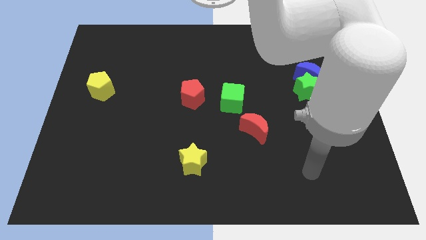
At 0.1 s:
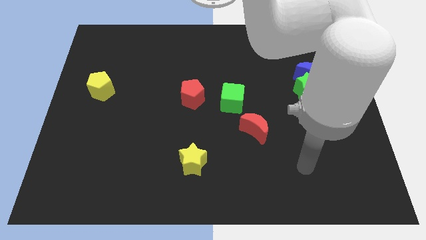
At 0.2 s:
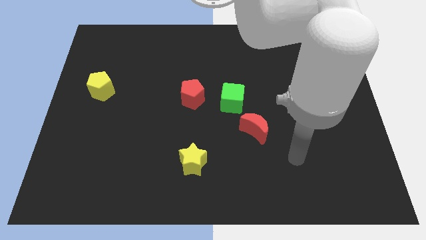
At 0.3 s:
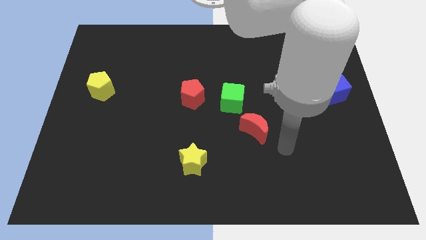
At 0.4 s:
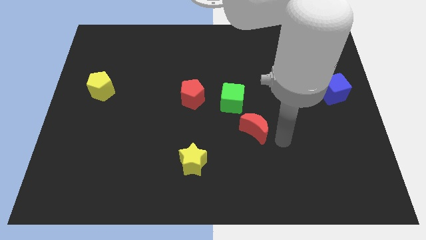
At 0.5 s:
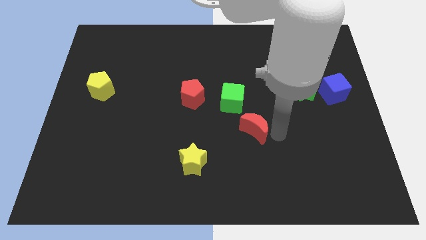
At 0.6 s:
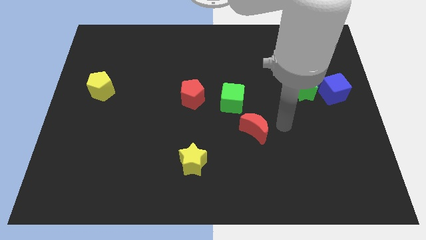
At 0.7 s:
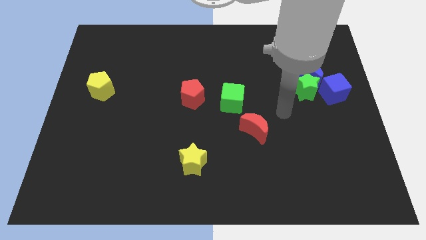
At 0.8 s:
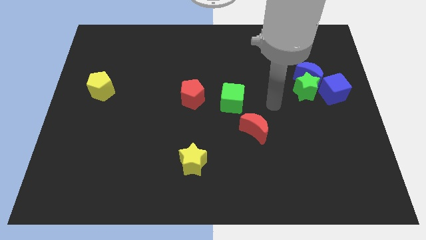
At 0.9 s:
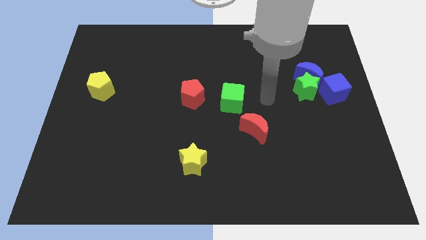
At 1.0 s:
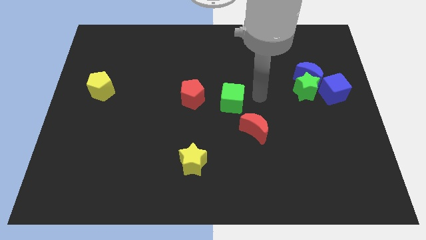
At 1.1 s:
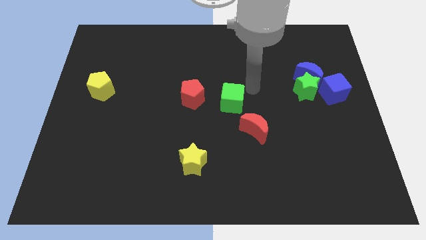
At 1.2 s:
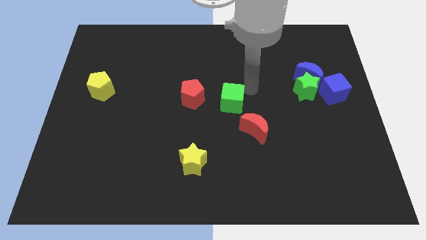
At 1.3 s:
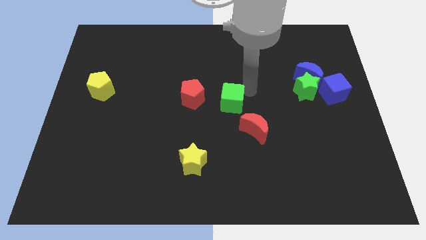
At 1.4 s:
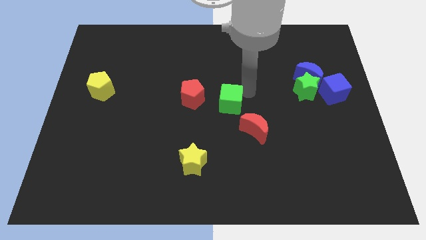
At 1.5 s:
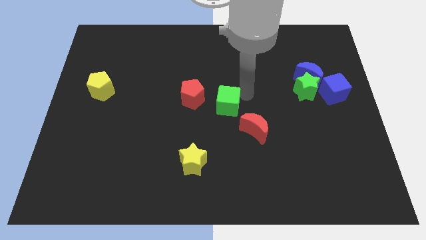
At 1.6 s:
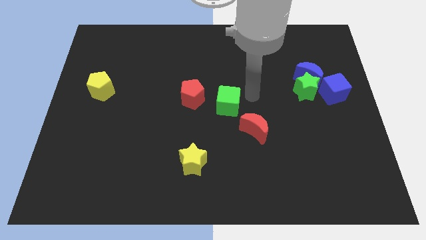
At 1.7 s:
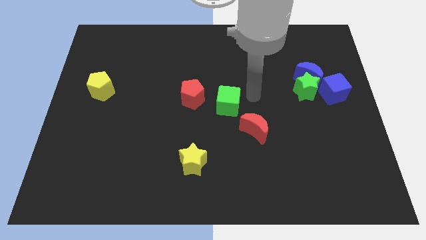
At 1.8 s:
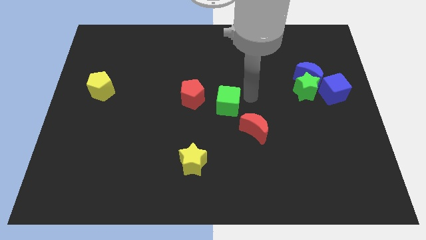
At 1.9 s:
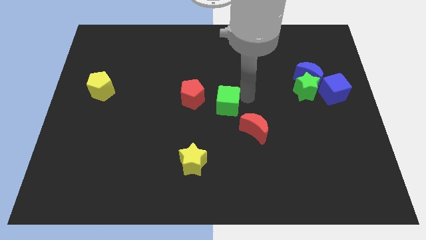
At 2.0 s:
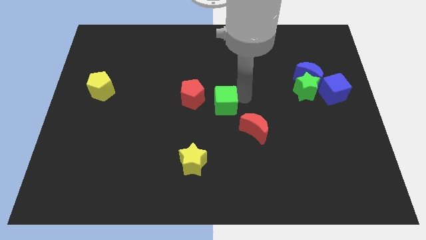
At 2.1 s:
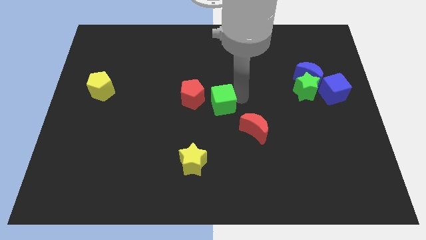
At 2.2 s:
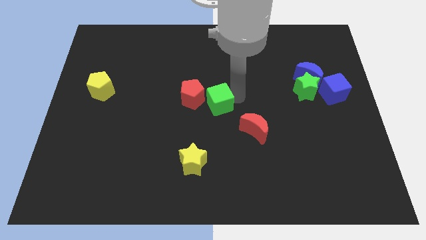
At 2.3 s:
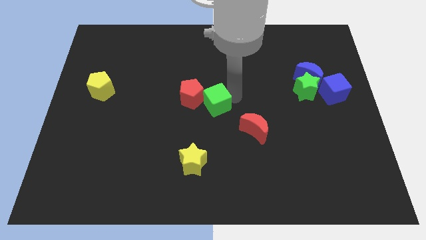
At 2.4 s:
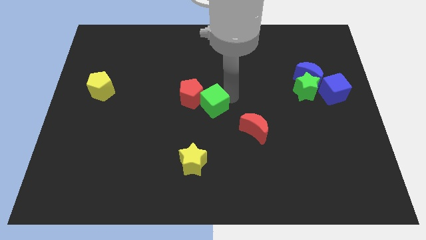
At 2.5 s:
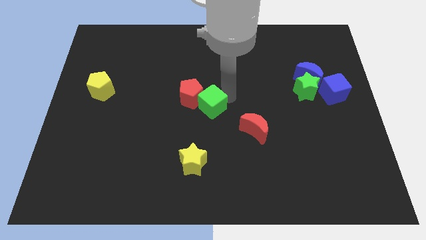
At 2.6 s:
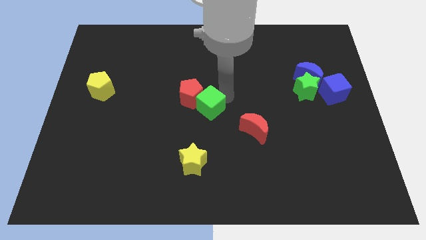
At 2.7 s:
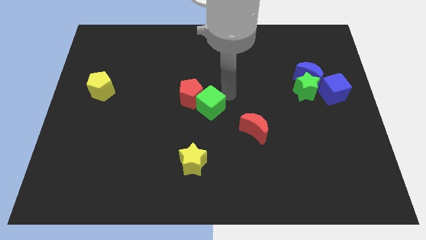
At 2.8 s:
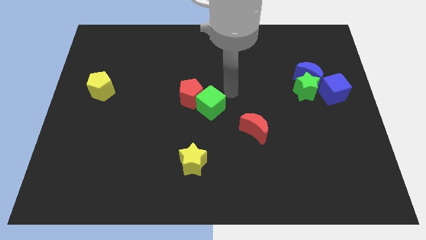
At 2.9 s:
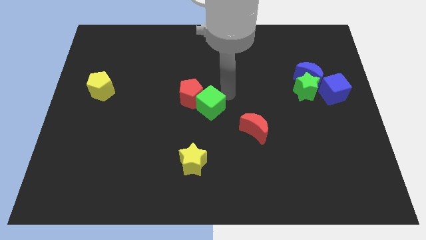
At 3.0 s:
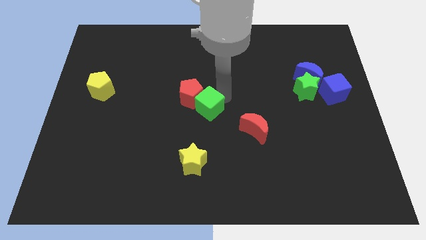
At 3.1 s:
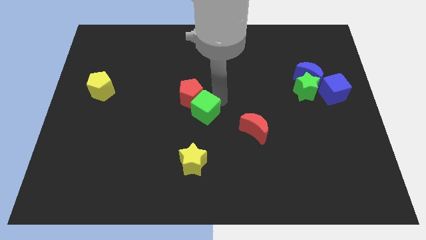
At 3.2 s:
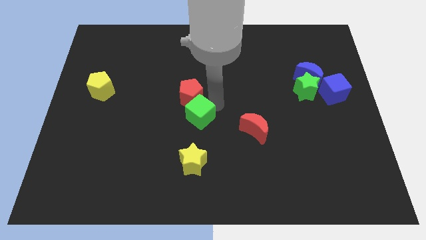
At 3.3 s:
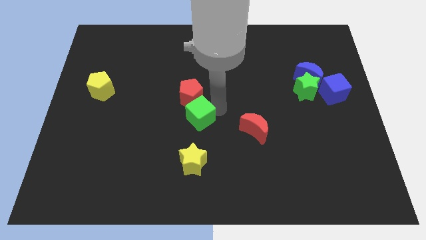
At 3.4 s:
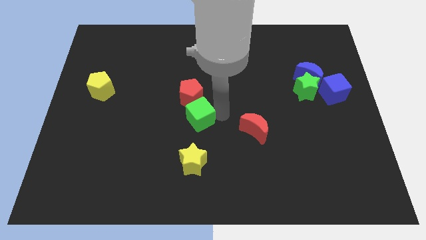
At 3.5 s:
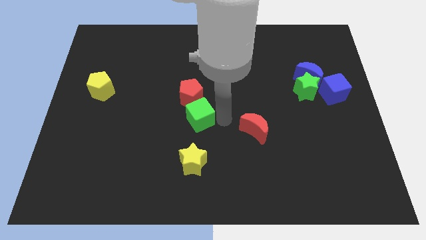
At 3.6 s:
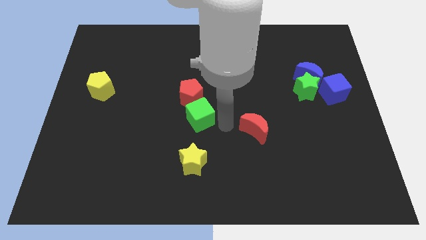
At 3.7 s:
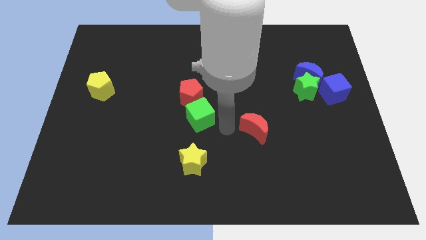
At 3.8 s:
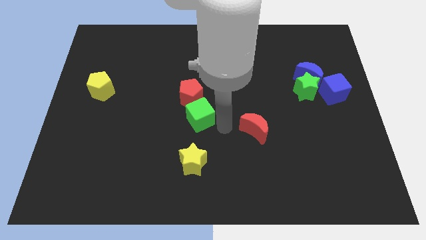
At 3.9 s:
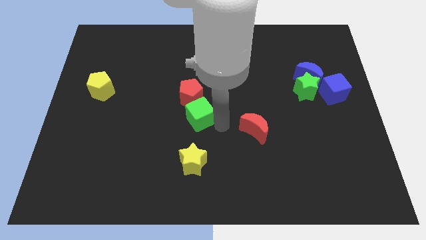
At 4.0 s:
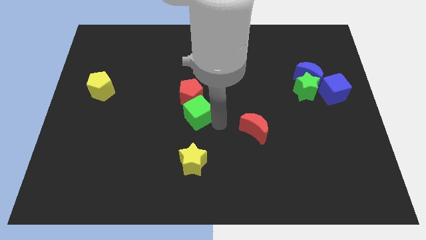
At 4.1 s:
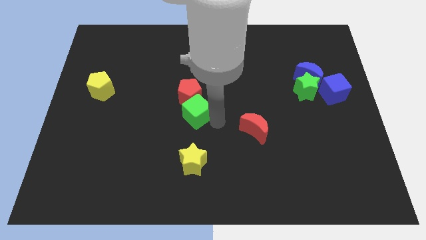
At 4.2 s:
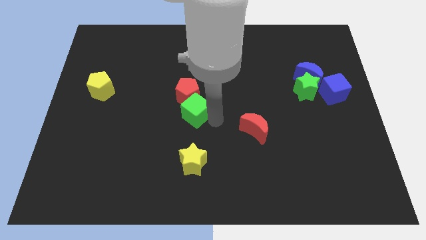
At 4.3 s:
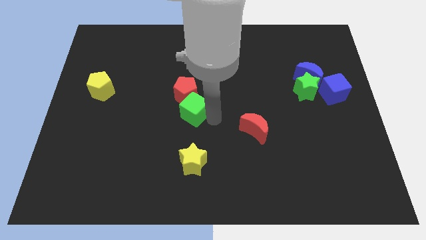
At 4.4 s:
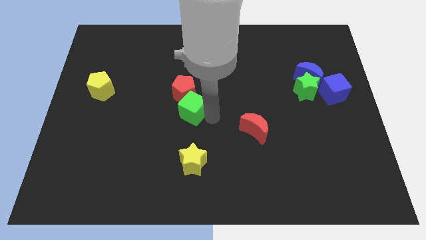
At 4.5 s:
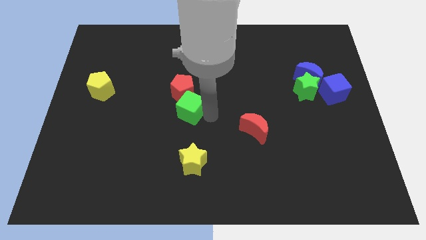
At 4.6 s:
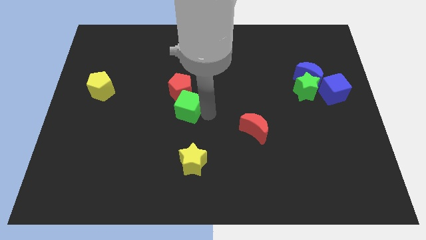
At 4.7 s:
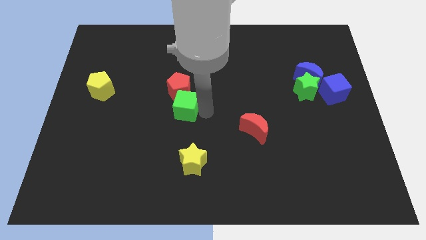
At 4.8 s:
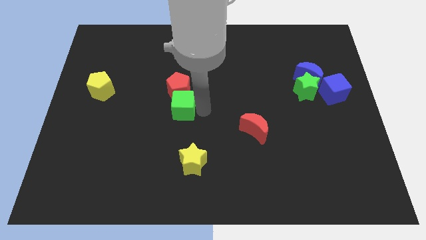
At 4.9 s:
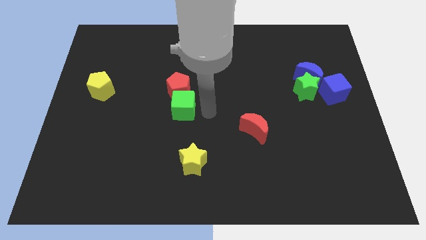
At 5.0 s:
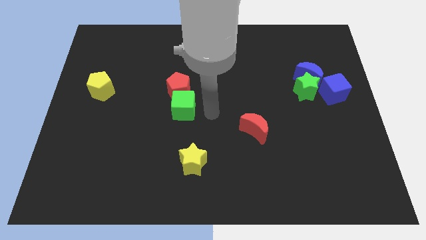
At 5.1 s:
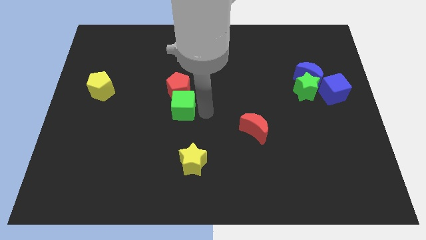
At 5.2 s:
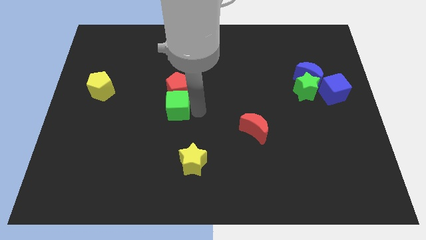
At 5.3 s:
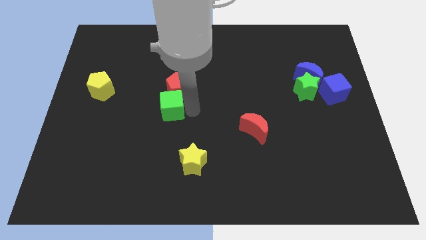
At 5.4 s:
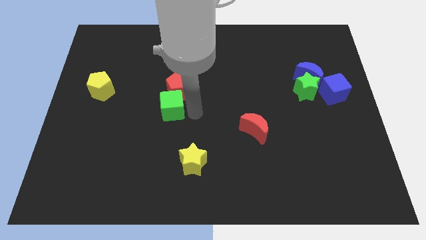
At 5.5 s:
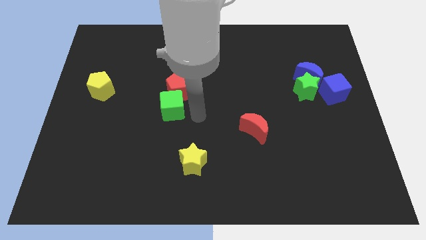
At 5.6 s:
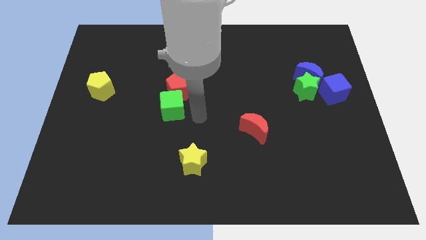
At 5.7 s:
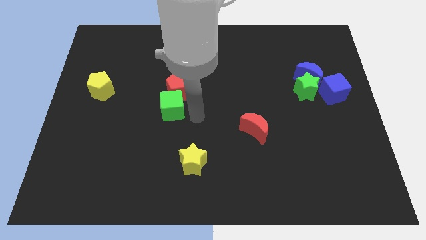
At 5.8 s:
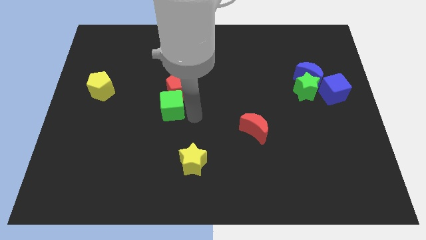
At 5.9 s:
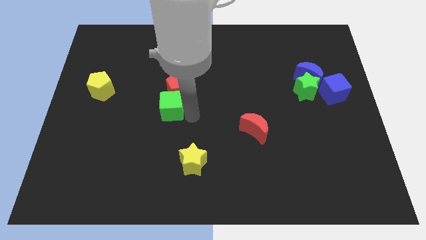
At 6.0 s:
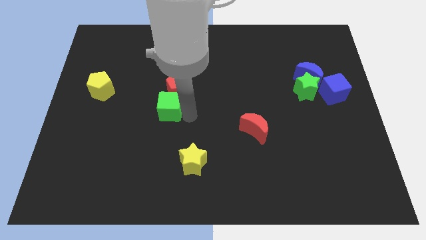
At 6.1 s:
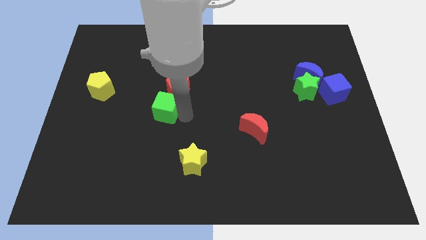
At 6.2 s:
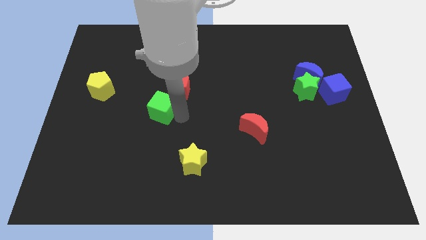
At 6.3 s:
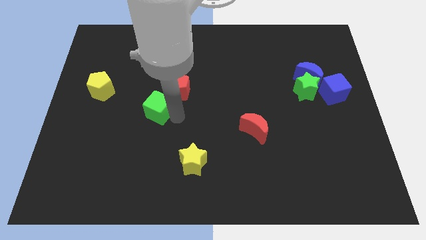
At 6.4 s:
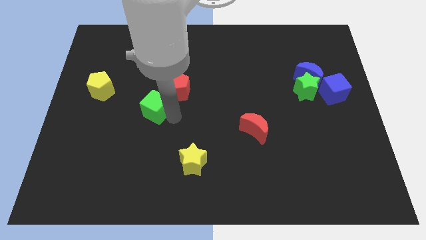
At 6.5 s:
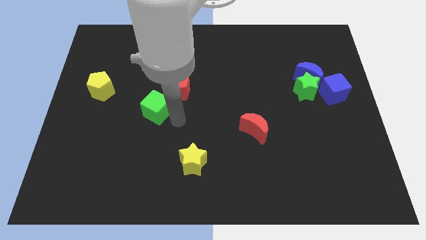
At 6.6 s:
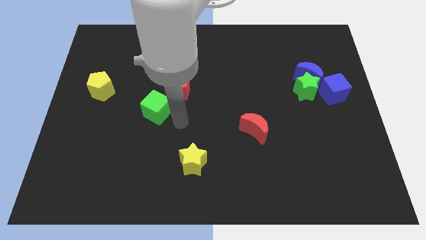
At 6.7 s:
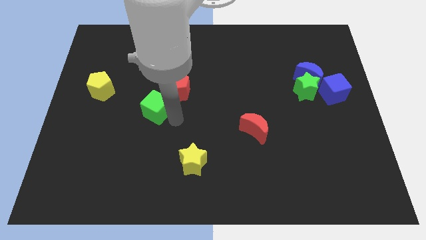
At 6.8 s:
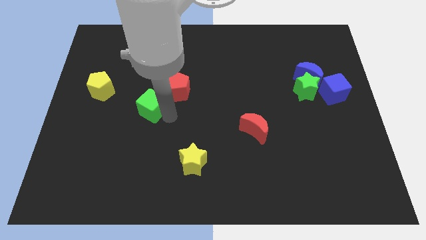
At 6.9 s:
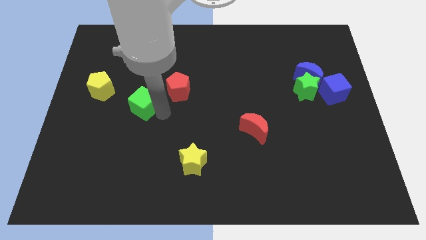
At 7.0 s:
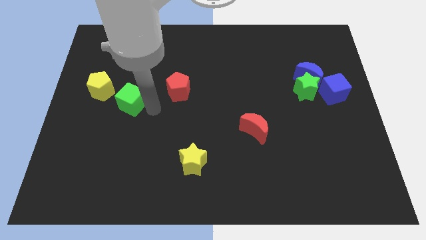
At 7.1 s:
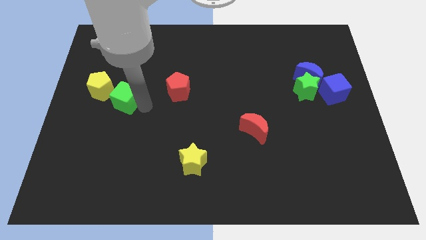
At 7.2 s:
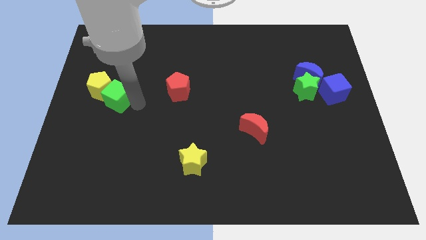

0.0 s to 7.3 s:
put the green cube close to the yellow pentagon

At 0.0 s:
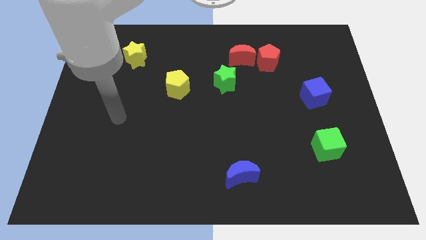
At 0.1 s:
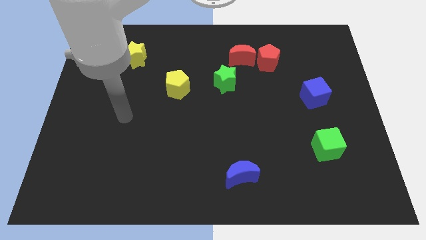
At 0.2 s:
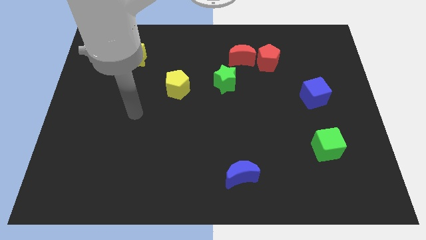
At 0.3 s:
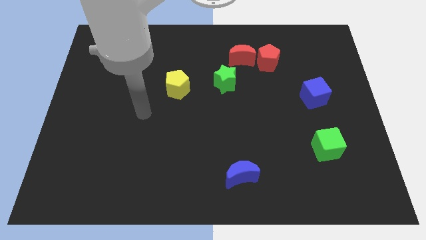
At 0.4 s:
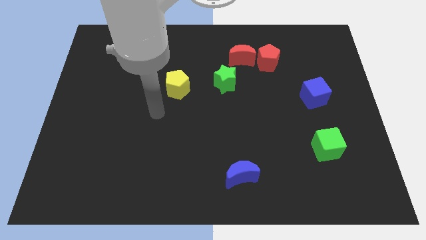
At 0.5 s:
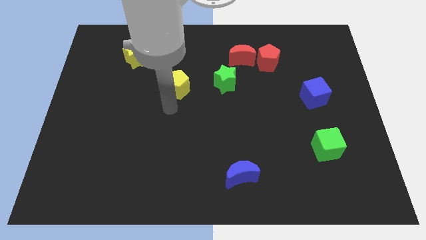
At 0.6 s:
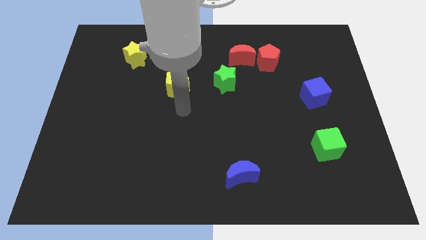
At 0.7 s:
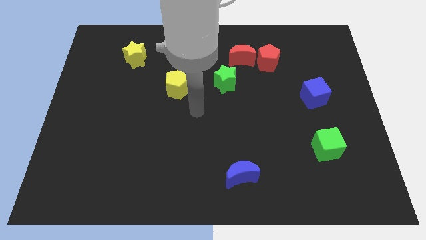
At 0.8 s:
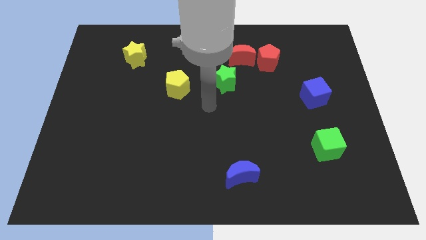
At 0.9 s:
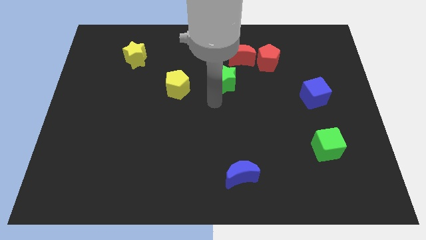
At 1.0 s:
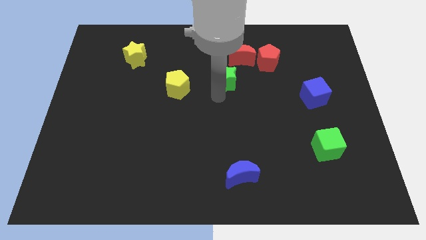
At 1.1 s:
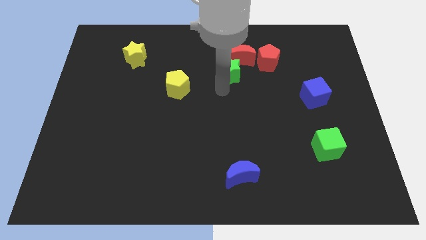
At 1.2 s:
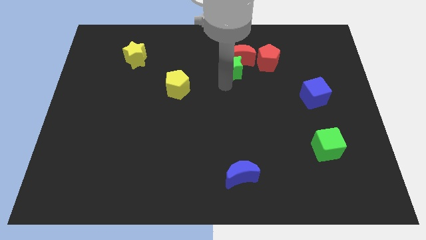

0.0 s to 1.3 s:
push the green star next to the red moon
